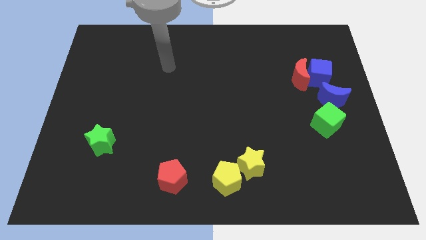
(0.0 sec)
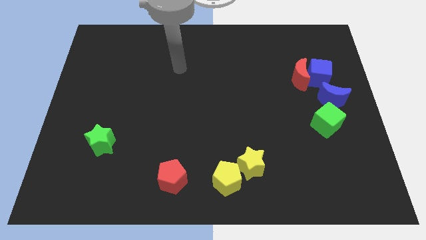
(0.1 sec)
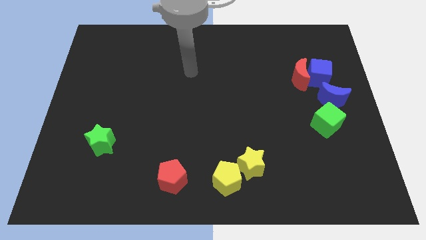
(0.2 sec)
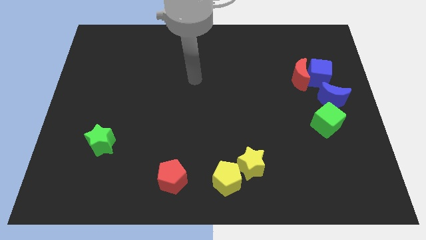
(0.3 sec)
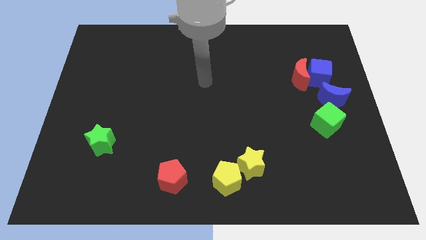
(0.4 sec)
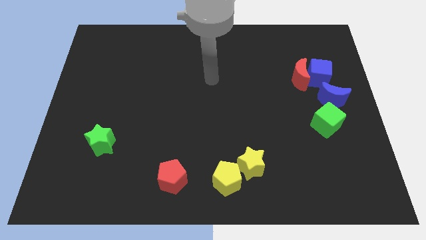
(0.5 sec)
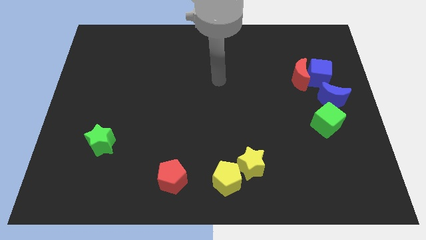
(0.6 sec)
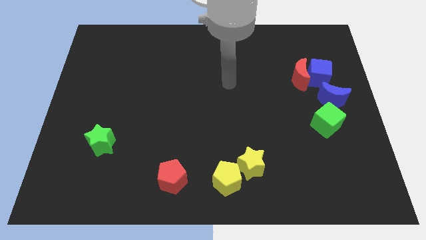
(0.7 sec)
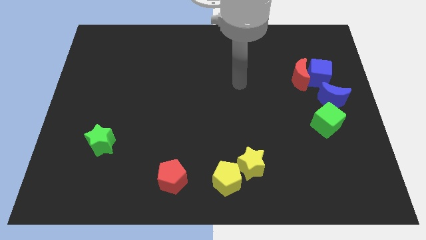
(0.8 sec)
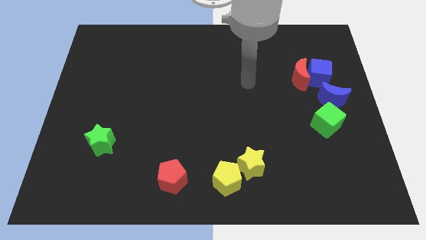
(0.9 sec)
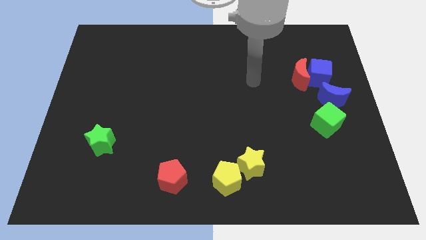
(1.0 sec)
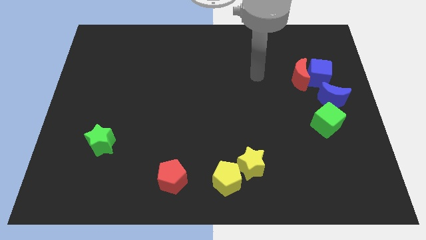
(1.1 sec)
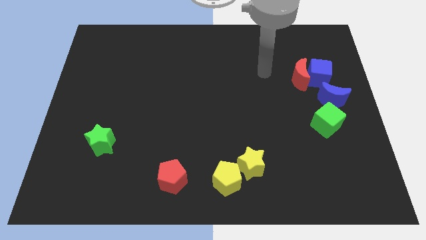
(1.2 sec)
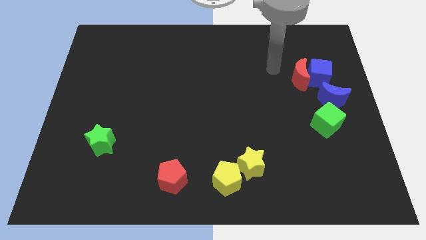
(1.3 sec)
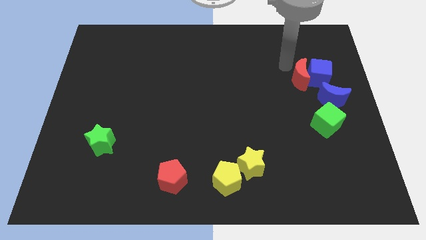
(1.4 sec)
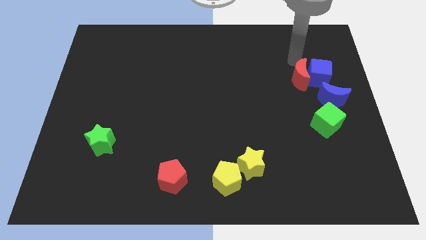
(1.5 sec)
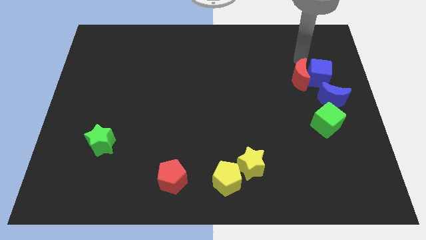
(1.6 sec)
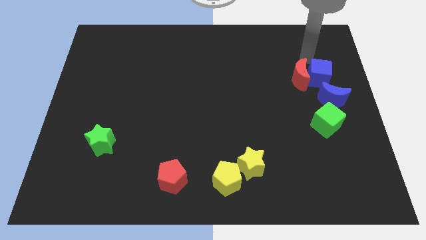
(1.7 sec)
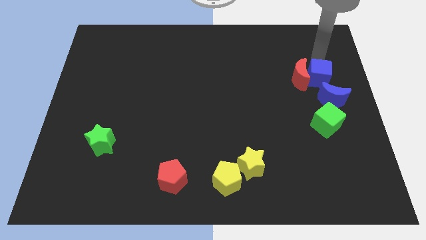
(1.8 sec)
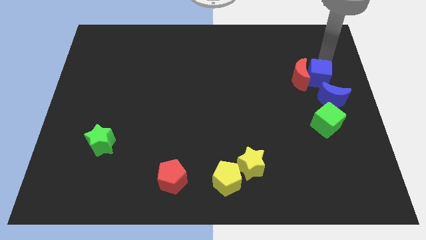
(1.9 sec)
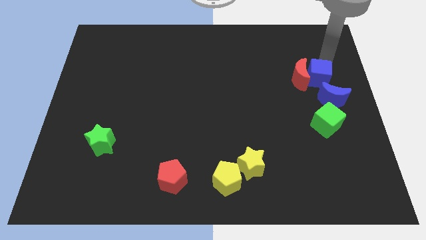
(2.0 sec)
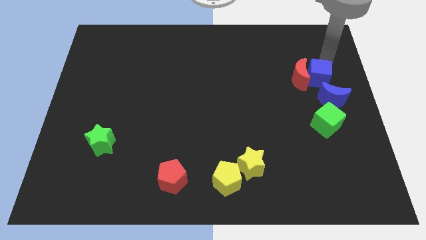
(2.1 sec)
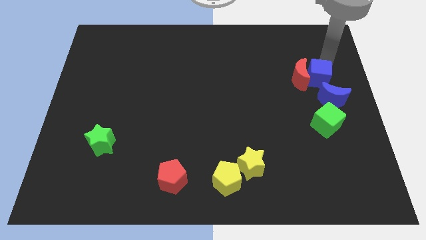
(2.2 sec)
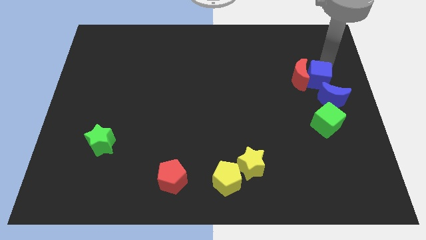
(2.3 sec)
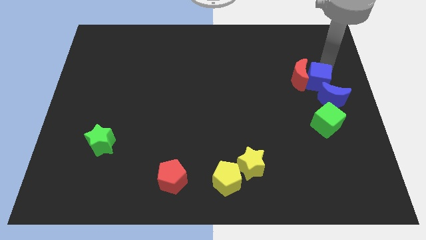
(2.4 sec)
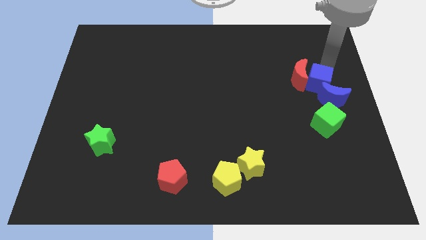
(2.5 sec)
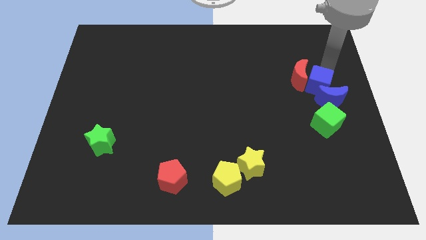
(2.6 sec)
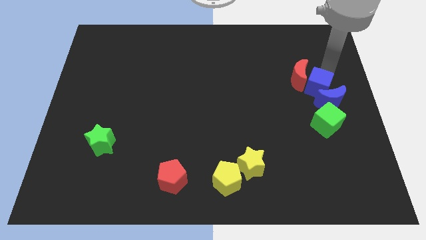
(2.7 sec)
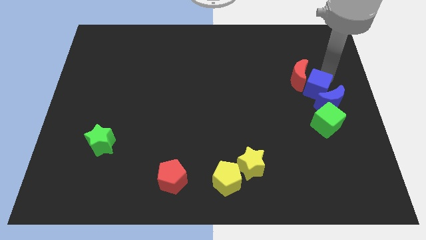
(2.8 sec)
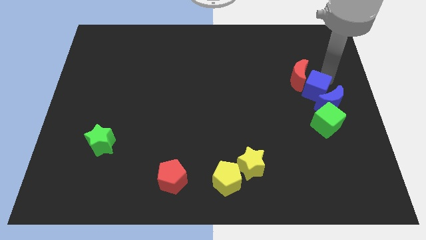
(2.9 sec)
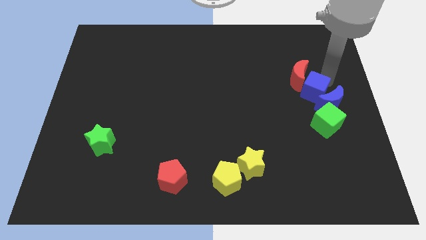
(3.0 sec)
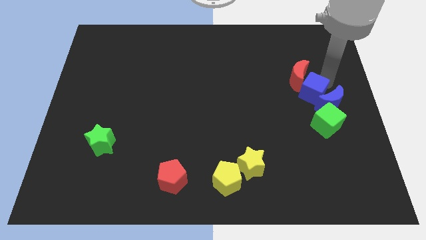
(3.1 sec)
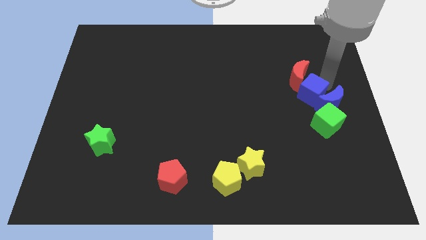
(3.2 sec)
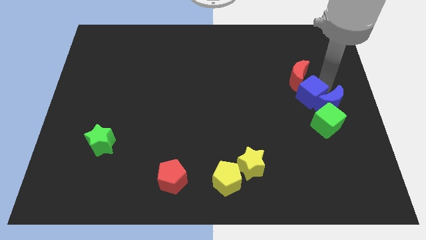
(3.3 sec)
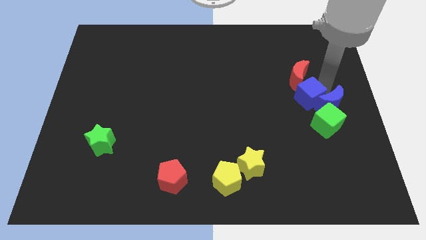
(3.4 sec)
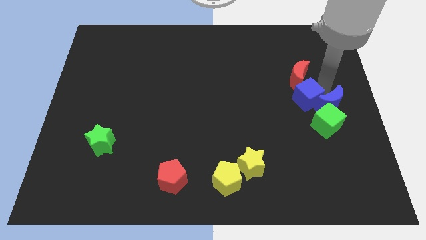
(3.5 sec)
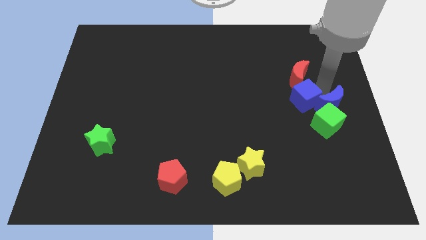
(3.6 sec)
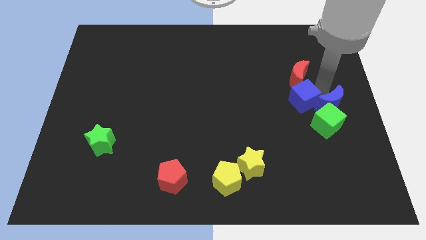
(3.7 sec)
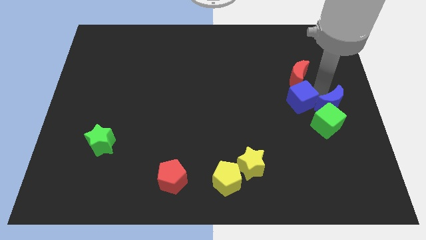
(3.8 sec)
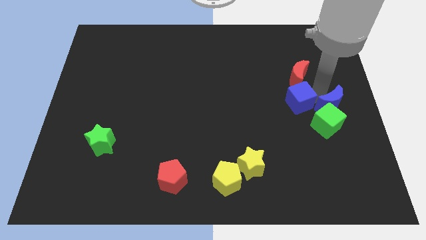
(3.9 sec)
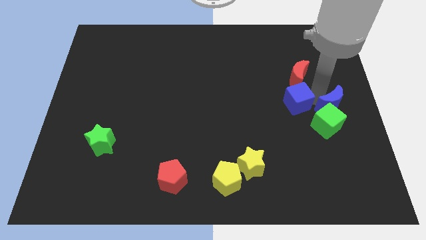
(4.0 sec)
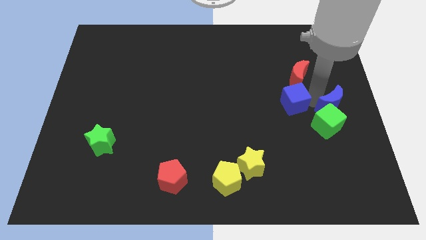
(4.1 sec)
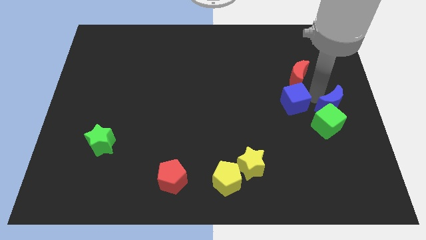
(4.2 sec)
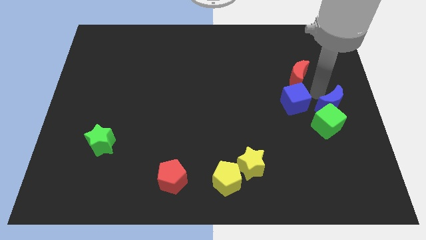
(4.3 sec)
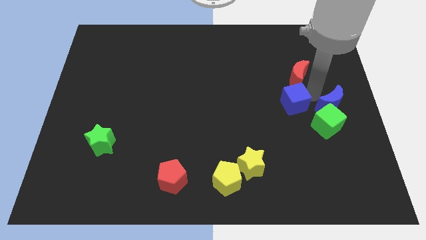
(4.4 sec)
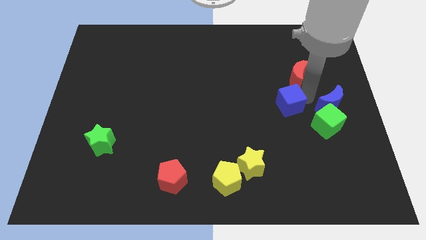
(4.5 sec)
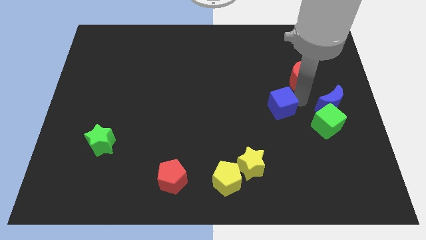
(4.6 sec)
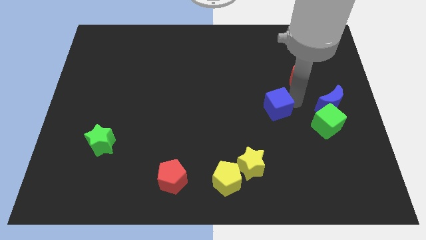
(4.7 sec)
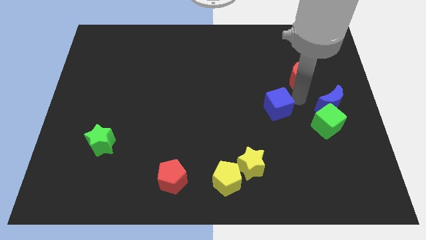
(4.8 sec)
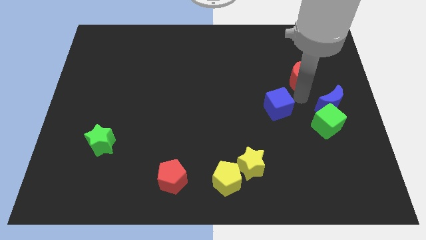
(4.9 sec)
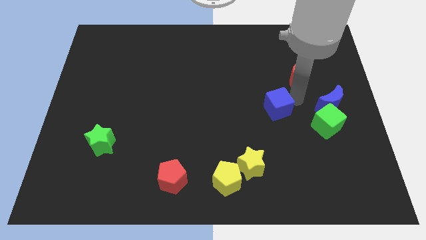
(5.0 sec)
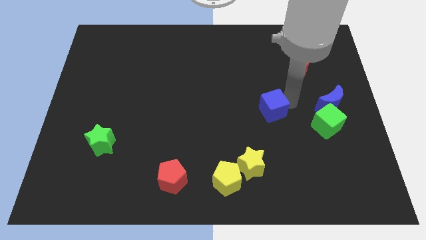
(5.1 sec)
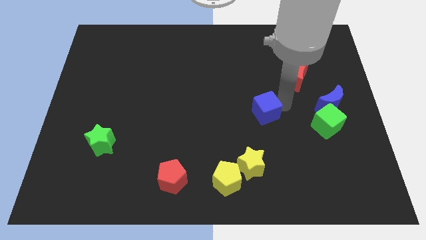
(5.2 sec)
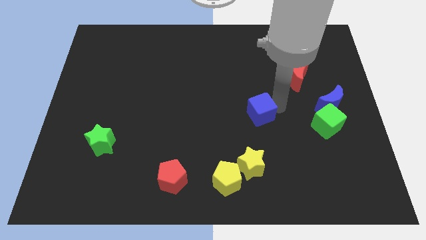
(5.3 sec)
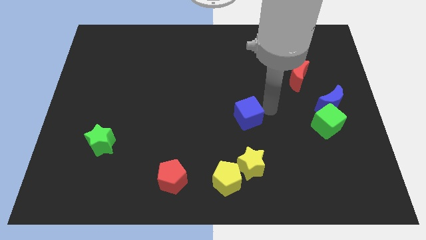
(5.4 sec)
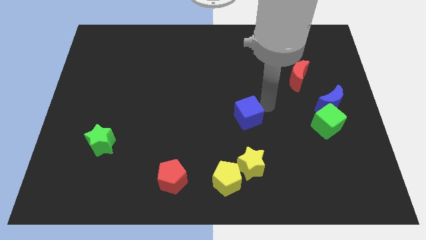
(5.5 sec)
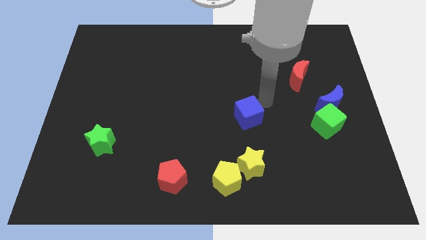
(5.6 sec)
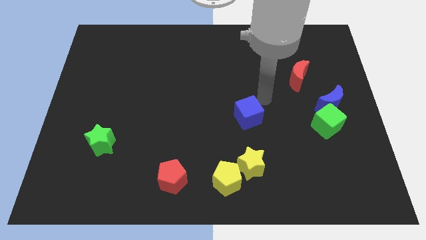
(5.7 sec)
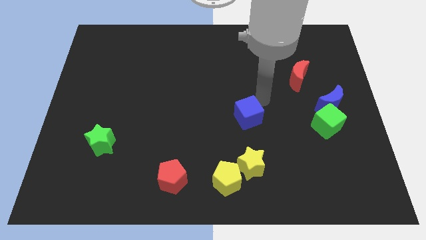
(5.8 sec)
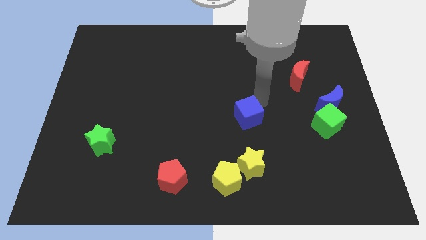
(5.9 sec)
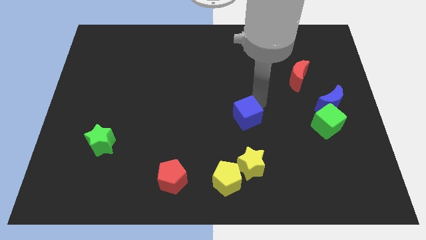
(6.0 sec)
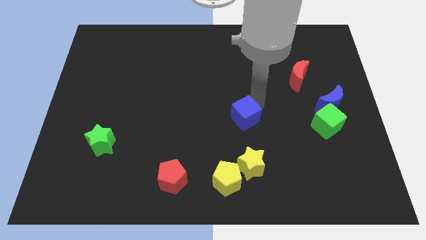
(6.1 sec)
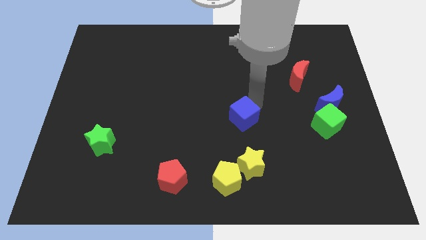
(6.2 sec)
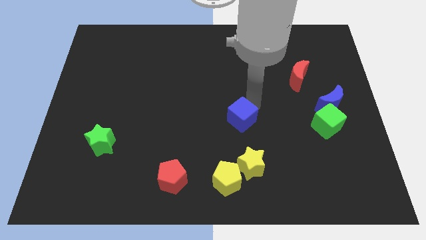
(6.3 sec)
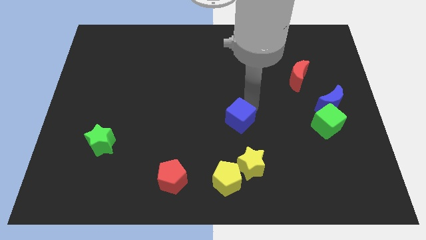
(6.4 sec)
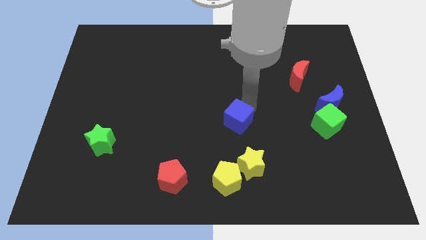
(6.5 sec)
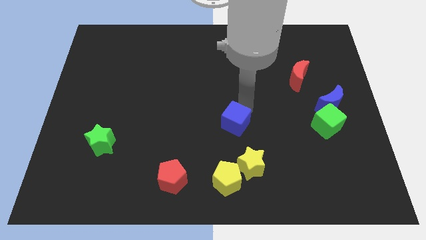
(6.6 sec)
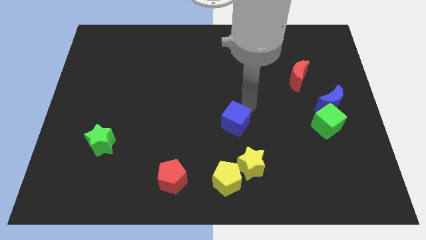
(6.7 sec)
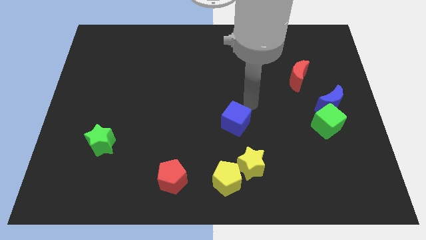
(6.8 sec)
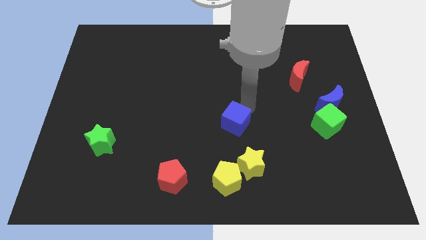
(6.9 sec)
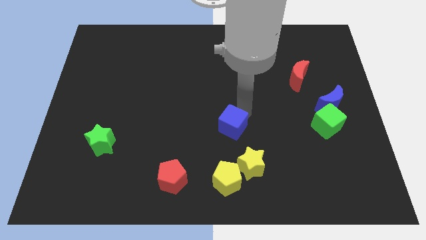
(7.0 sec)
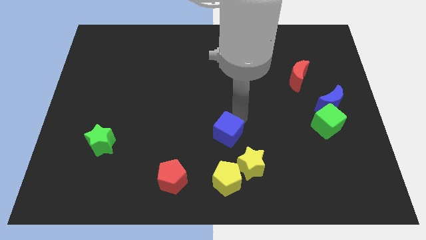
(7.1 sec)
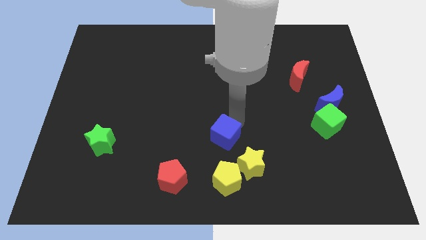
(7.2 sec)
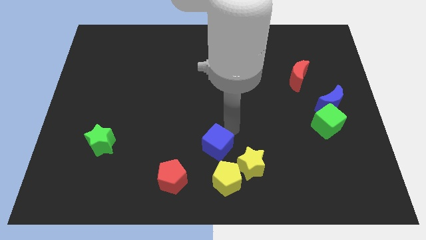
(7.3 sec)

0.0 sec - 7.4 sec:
slide the blue cube to the left side of the yellow star
